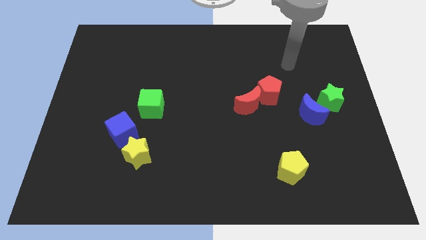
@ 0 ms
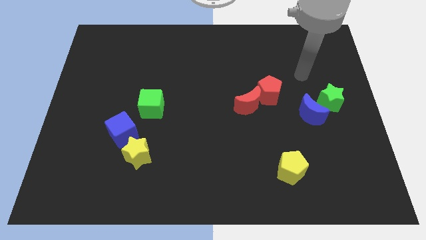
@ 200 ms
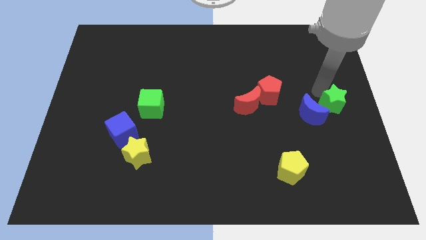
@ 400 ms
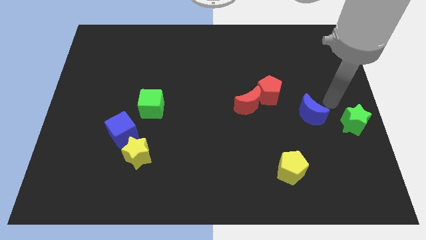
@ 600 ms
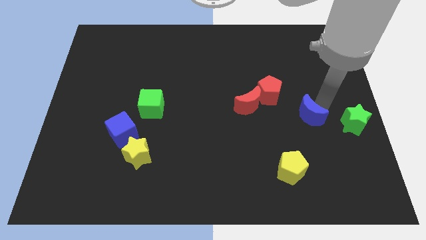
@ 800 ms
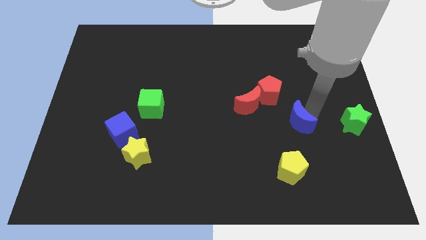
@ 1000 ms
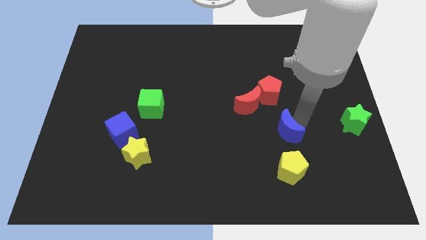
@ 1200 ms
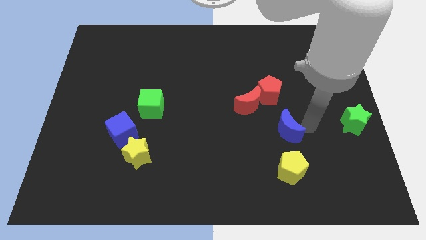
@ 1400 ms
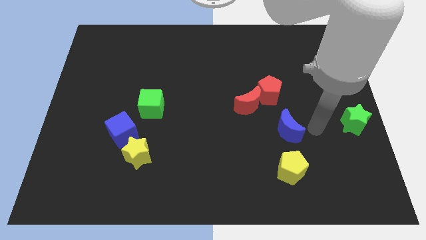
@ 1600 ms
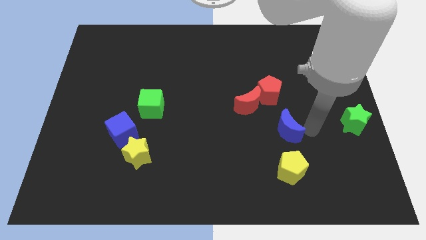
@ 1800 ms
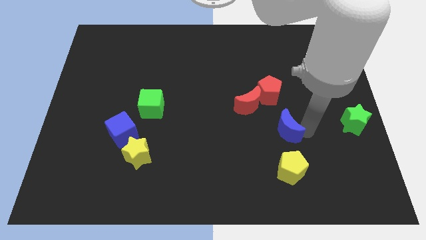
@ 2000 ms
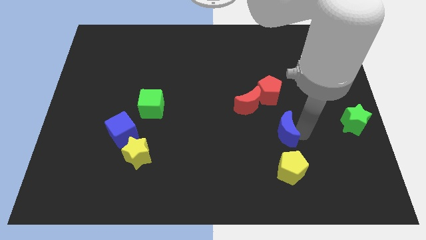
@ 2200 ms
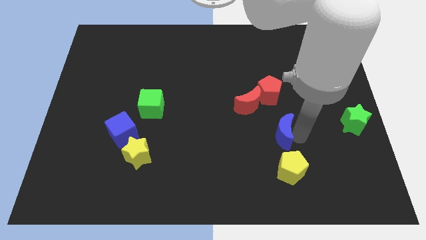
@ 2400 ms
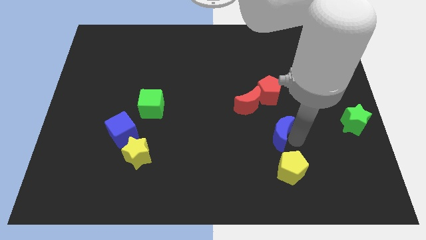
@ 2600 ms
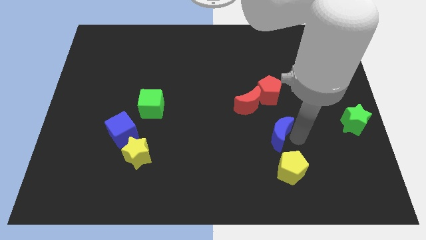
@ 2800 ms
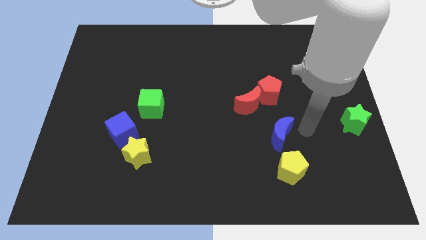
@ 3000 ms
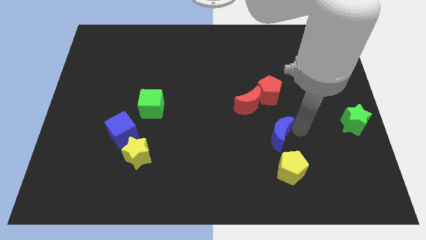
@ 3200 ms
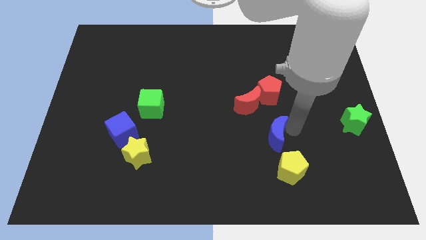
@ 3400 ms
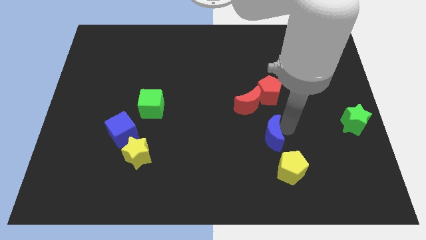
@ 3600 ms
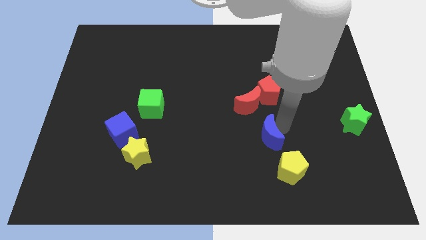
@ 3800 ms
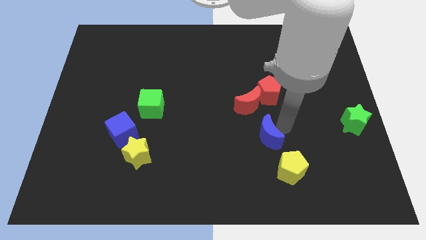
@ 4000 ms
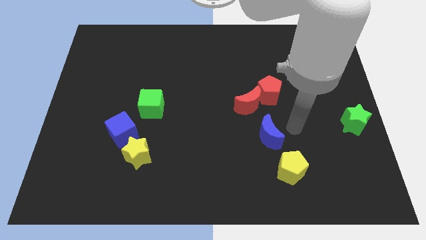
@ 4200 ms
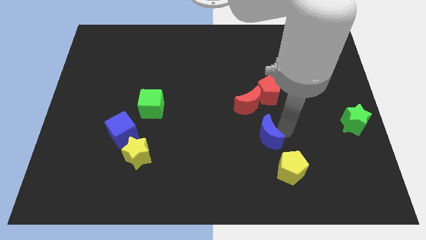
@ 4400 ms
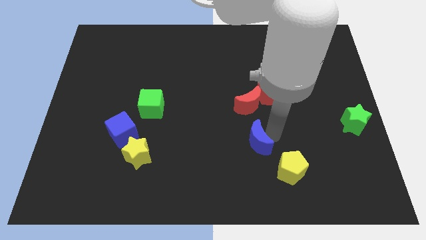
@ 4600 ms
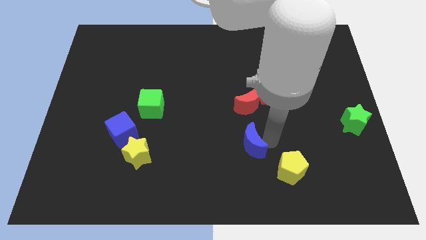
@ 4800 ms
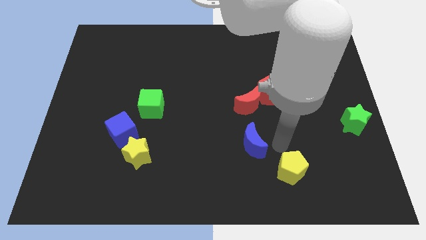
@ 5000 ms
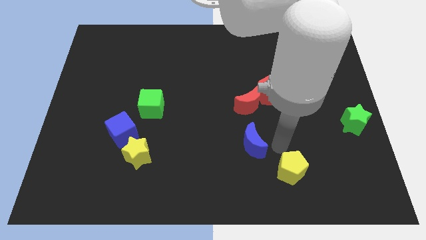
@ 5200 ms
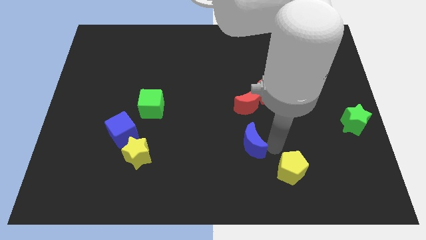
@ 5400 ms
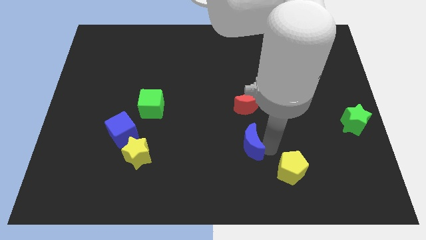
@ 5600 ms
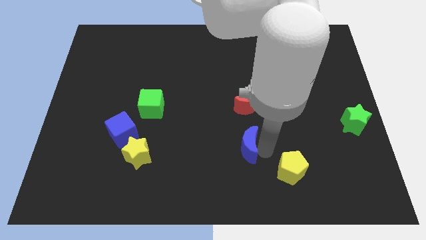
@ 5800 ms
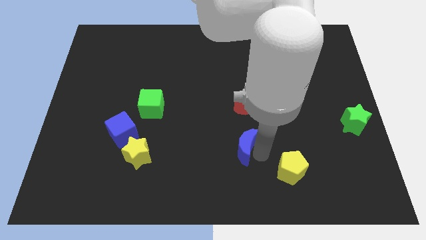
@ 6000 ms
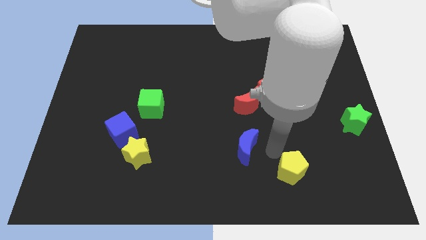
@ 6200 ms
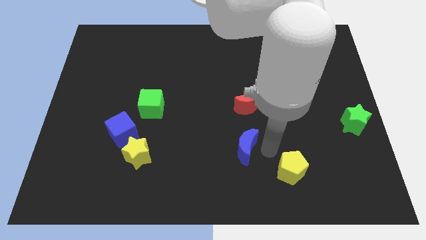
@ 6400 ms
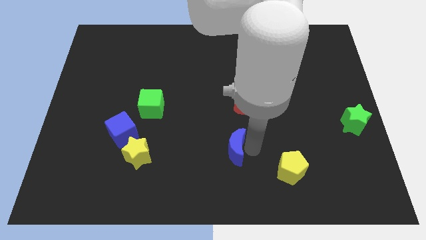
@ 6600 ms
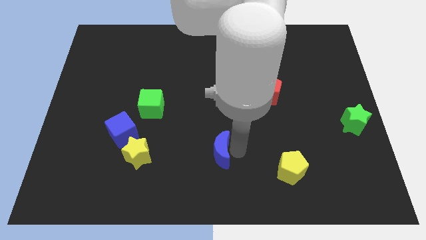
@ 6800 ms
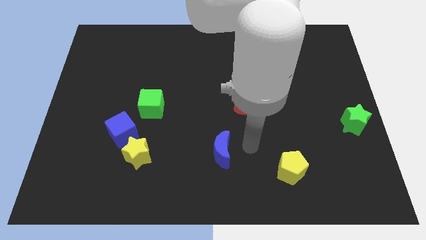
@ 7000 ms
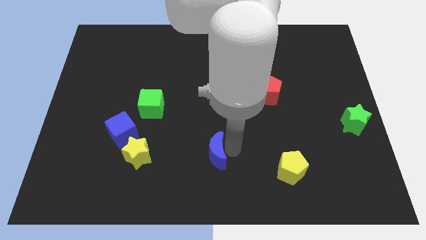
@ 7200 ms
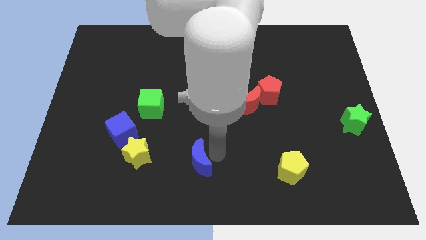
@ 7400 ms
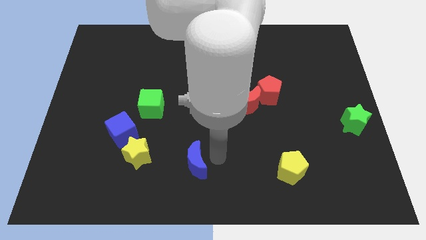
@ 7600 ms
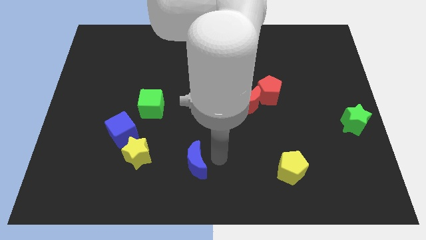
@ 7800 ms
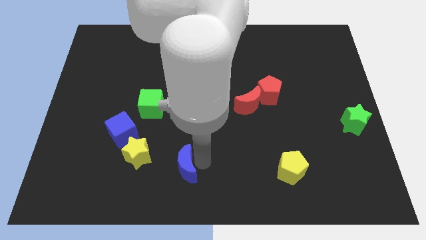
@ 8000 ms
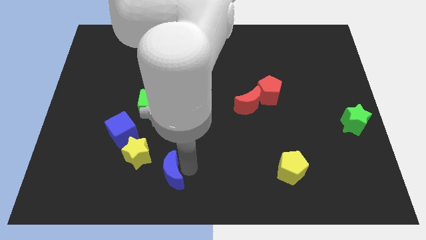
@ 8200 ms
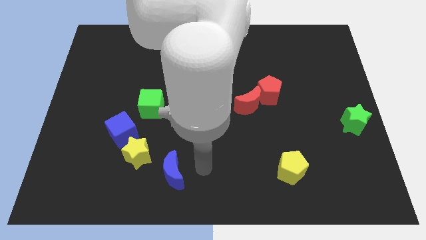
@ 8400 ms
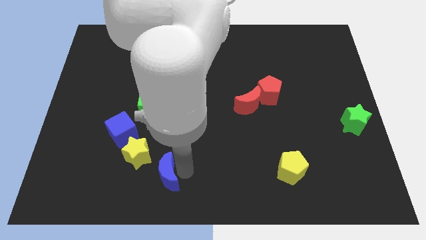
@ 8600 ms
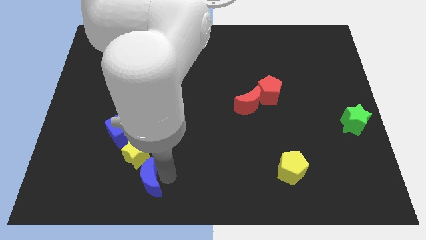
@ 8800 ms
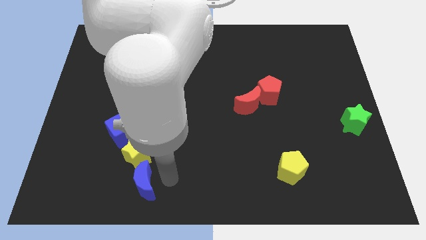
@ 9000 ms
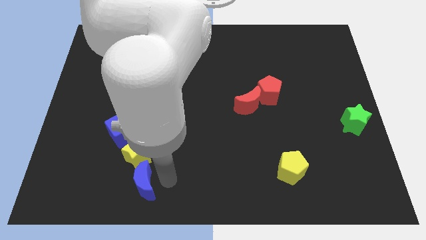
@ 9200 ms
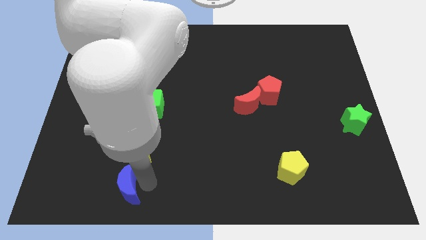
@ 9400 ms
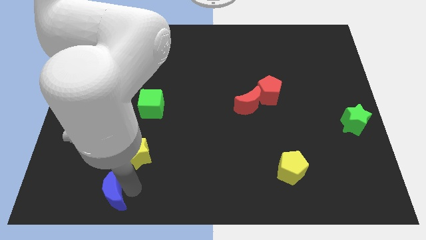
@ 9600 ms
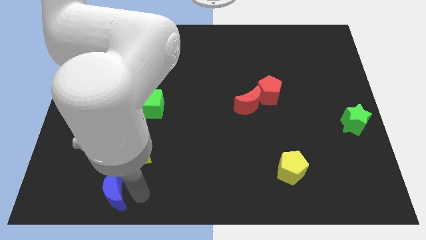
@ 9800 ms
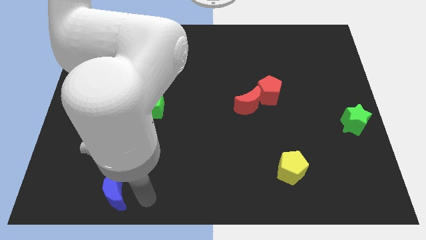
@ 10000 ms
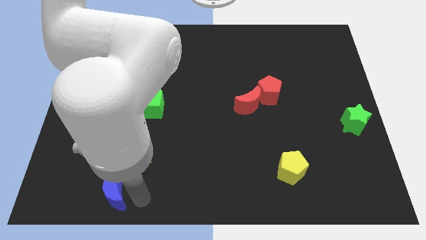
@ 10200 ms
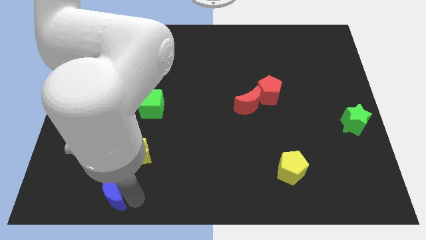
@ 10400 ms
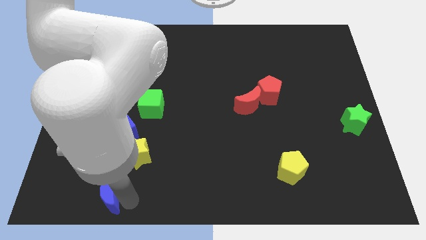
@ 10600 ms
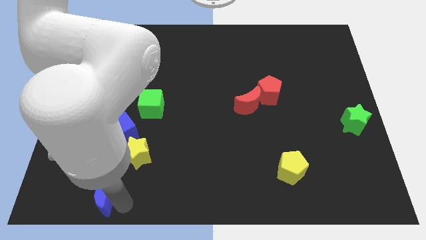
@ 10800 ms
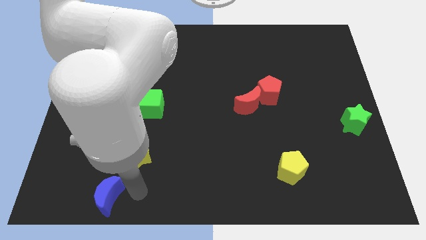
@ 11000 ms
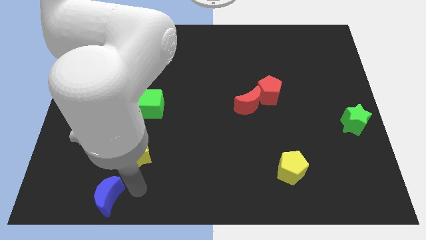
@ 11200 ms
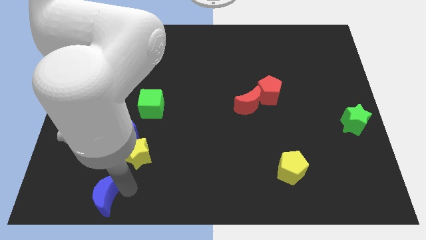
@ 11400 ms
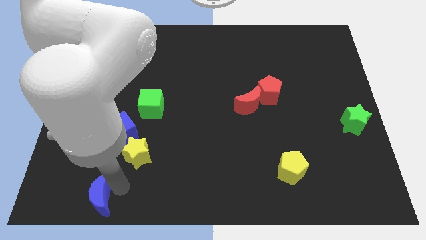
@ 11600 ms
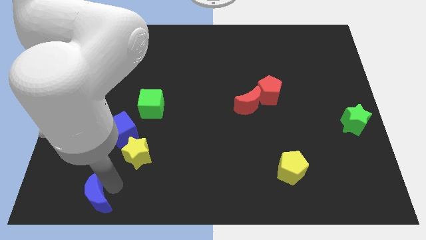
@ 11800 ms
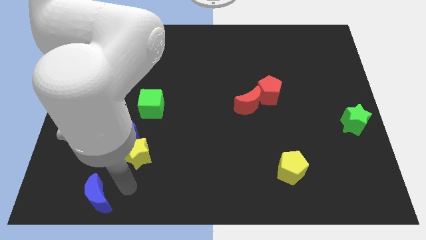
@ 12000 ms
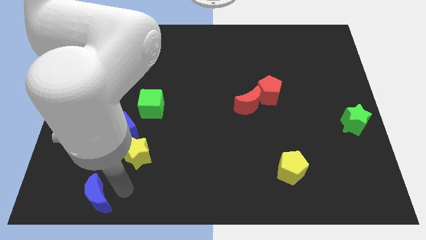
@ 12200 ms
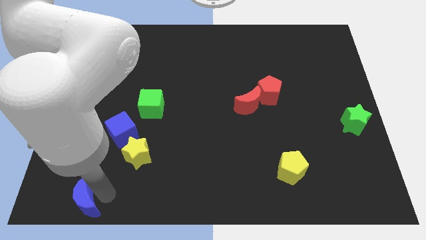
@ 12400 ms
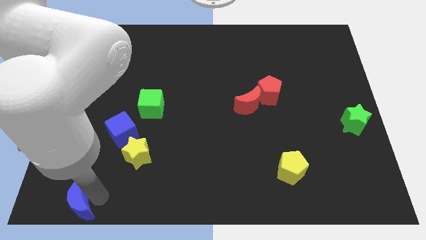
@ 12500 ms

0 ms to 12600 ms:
put the blue moon to the bottom left of the board
